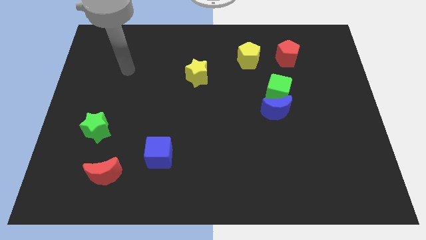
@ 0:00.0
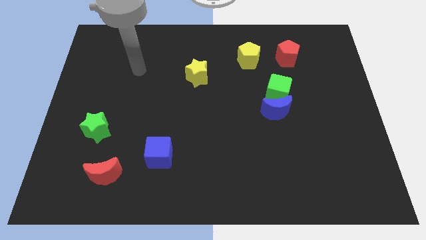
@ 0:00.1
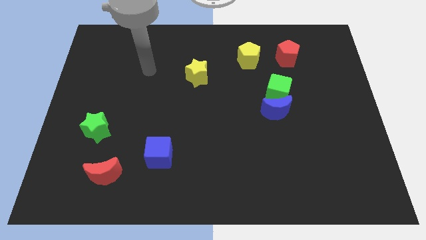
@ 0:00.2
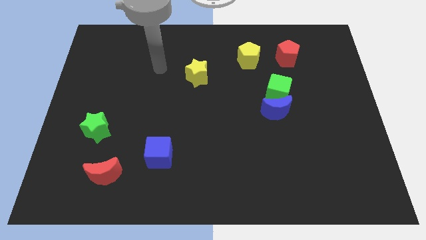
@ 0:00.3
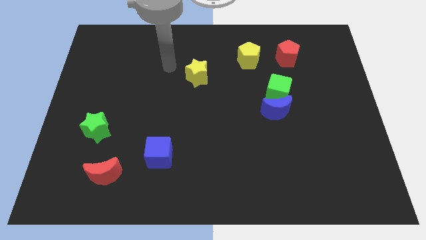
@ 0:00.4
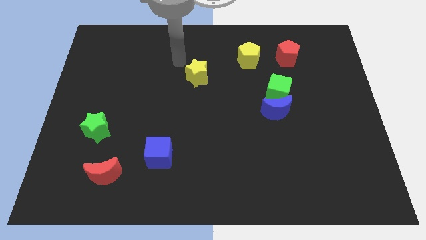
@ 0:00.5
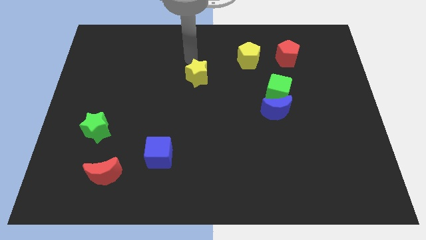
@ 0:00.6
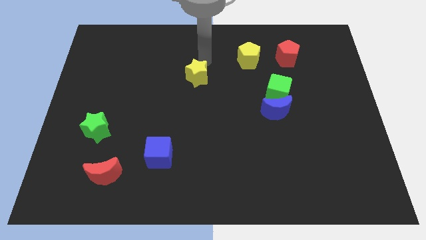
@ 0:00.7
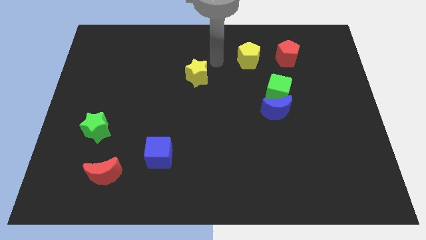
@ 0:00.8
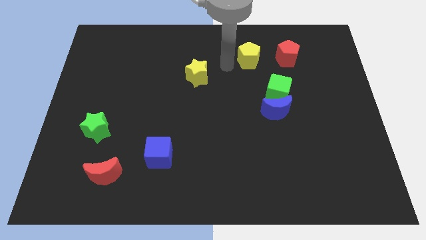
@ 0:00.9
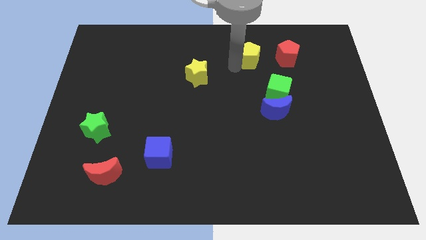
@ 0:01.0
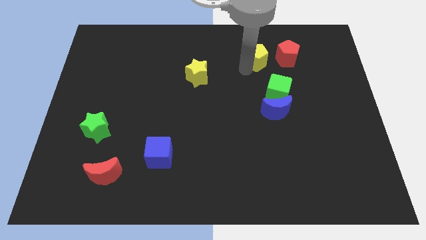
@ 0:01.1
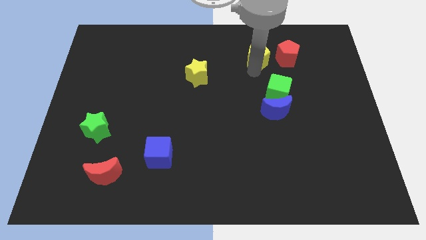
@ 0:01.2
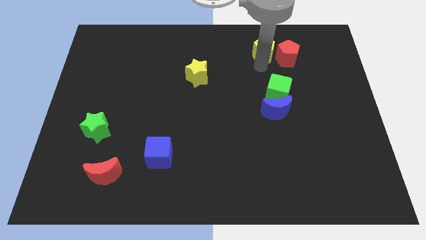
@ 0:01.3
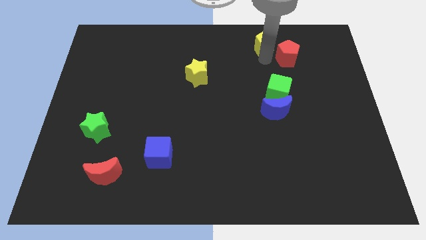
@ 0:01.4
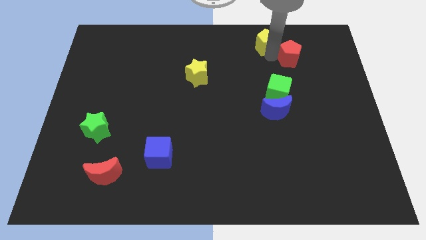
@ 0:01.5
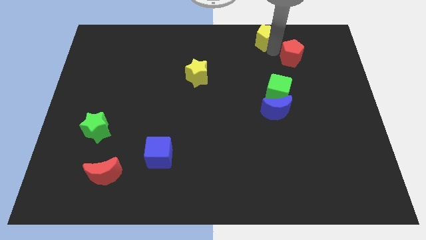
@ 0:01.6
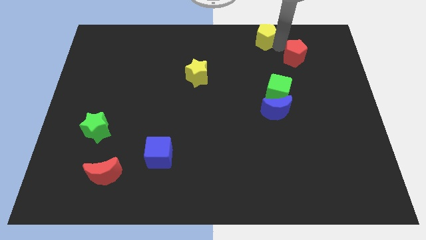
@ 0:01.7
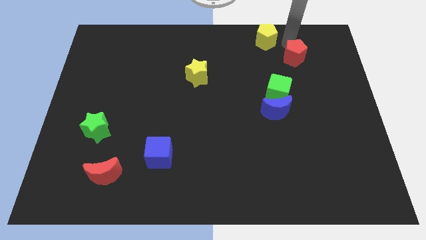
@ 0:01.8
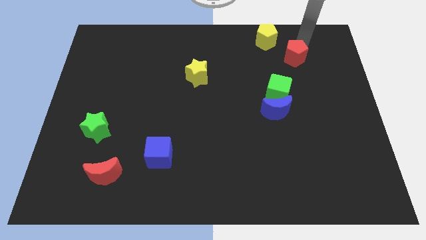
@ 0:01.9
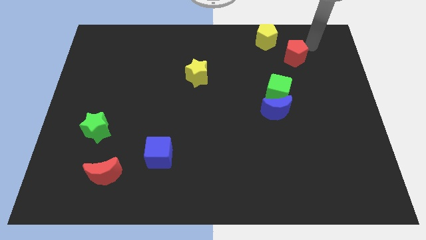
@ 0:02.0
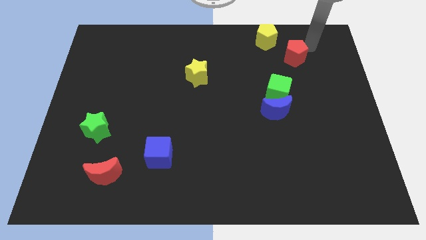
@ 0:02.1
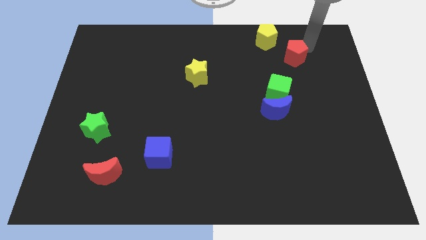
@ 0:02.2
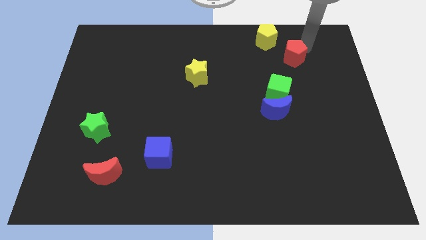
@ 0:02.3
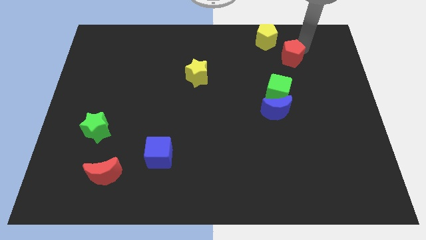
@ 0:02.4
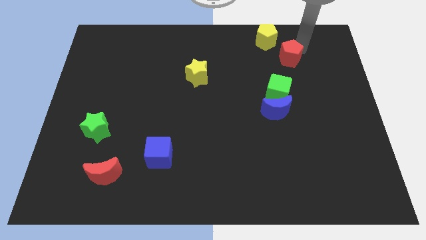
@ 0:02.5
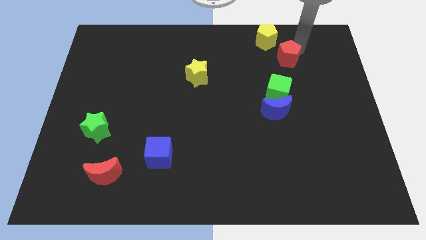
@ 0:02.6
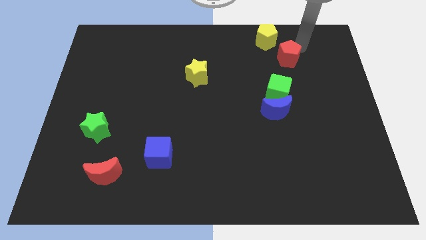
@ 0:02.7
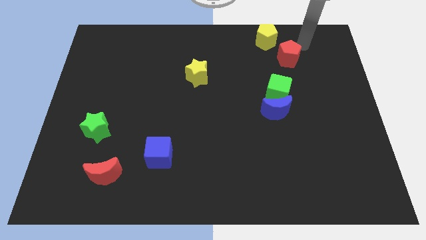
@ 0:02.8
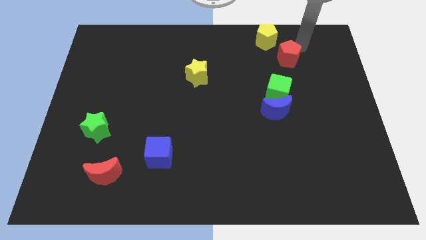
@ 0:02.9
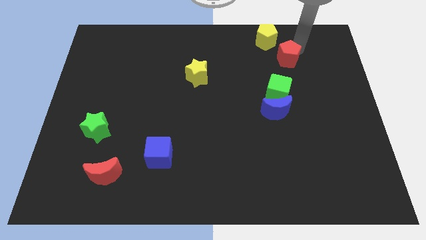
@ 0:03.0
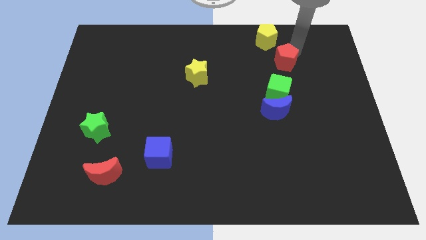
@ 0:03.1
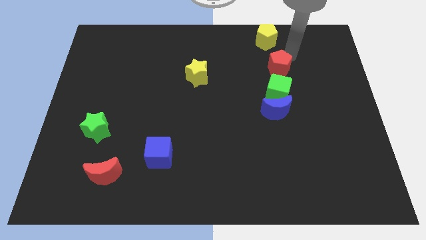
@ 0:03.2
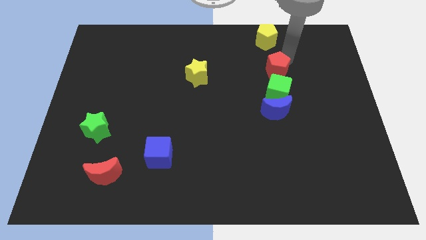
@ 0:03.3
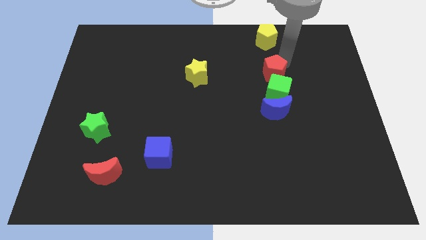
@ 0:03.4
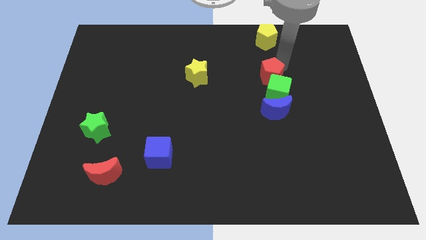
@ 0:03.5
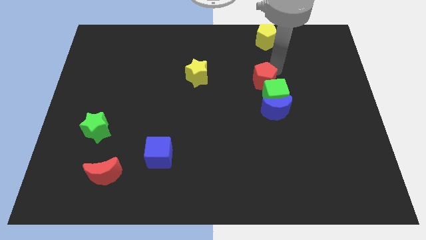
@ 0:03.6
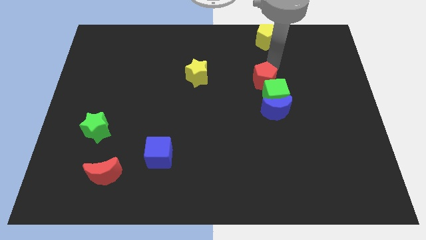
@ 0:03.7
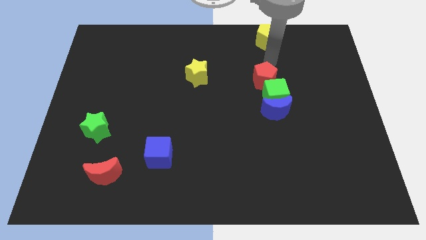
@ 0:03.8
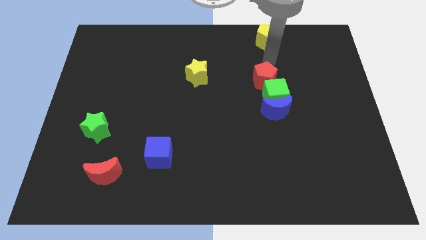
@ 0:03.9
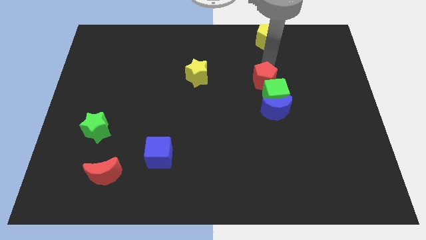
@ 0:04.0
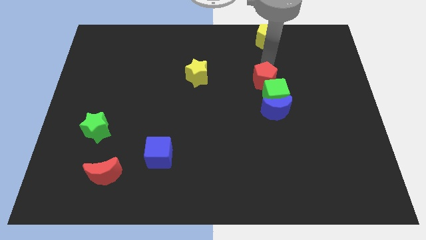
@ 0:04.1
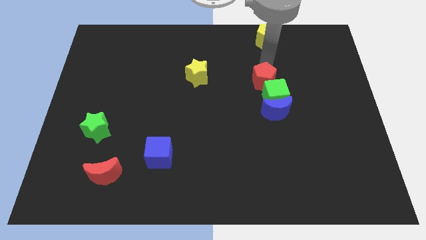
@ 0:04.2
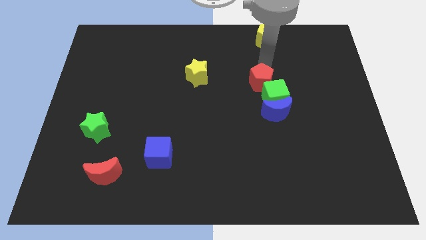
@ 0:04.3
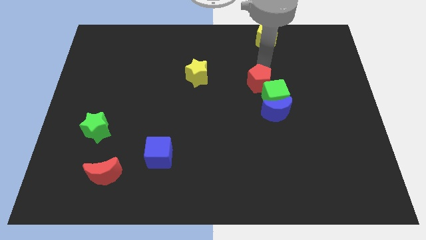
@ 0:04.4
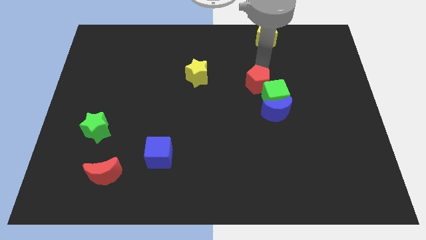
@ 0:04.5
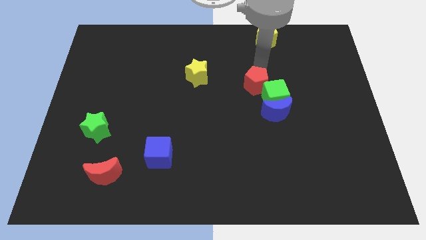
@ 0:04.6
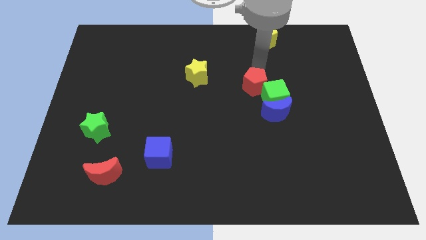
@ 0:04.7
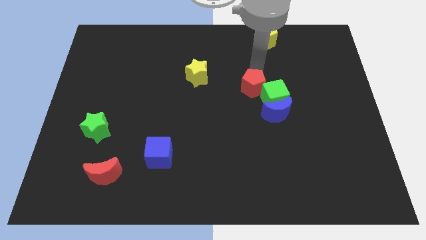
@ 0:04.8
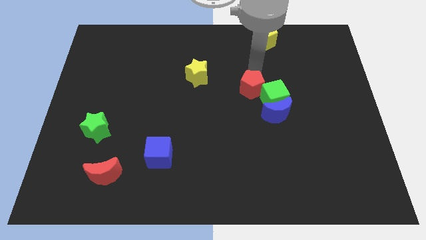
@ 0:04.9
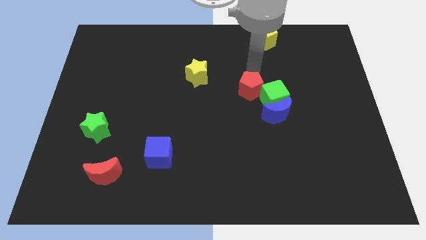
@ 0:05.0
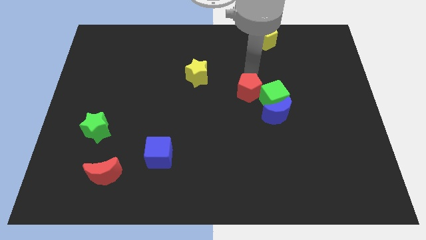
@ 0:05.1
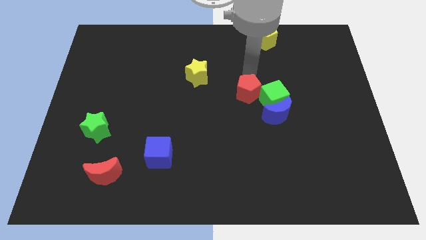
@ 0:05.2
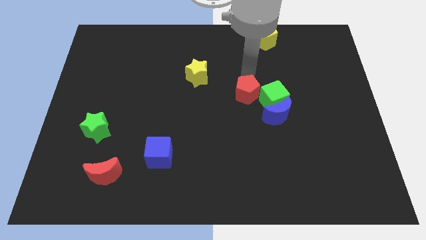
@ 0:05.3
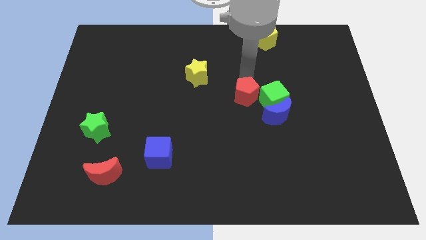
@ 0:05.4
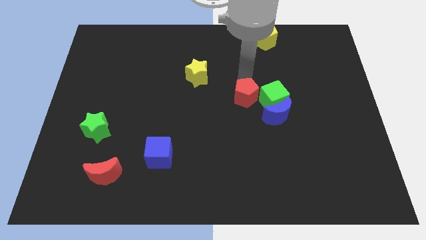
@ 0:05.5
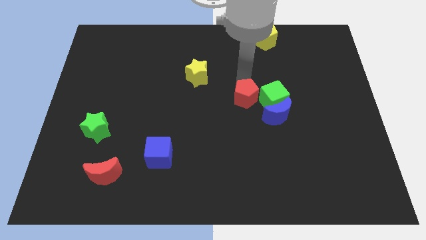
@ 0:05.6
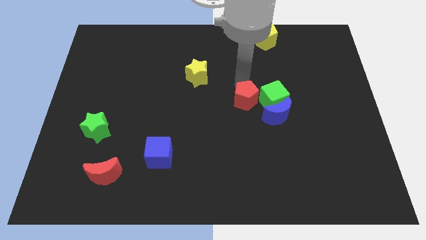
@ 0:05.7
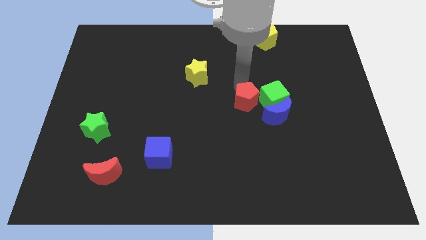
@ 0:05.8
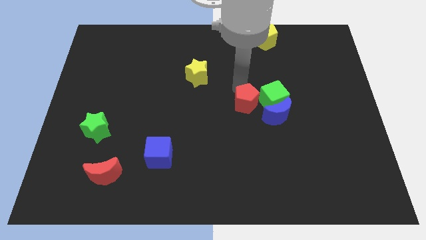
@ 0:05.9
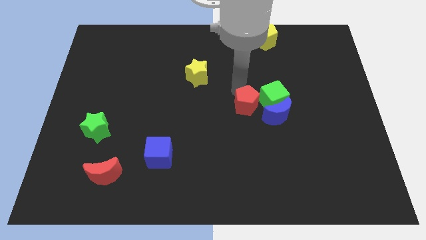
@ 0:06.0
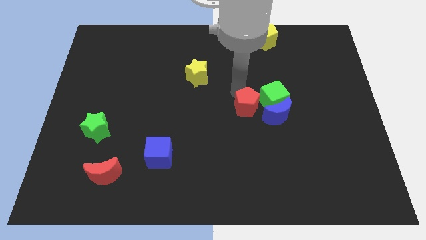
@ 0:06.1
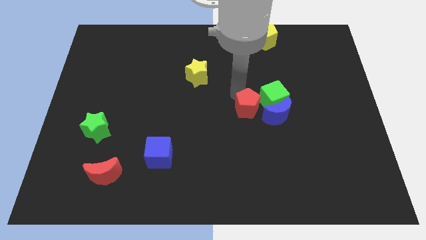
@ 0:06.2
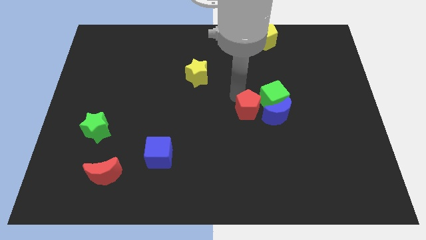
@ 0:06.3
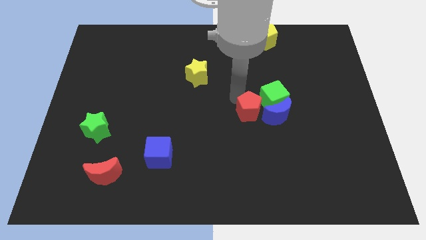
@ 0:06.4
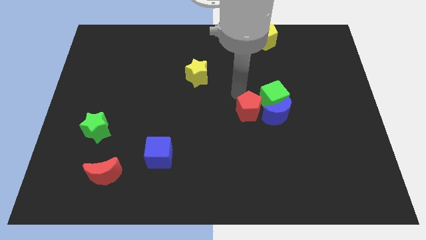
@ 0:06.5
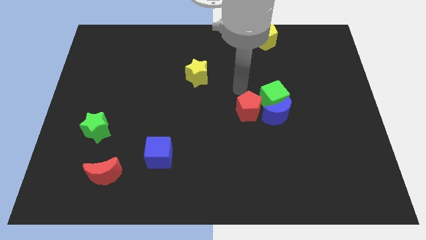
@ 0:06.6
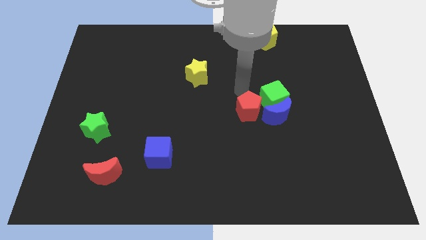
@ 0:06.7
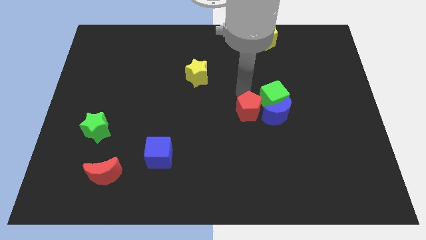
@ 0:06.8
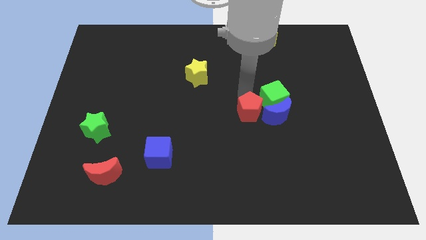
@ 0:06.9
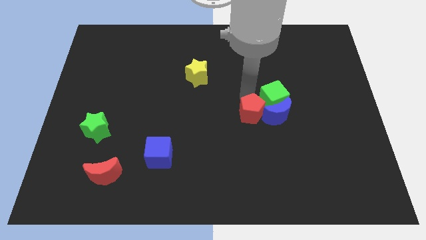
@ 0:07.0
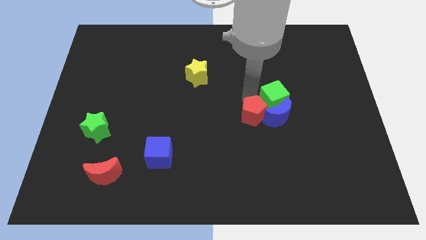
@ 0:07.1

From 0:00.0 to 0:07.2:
move the red pentagon diagonally down and to the left of the blue moon
